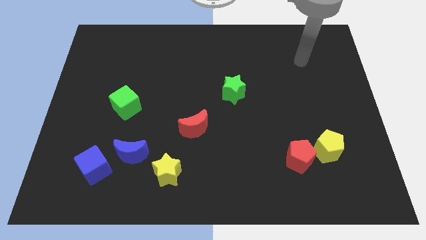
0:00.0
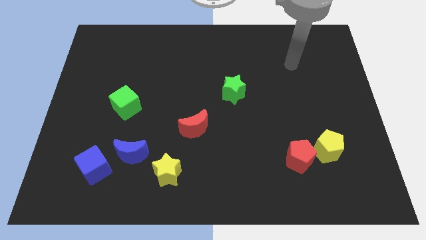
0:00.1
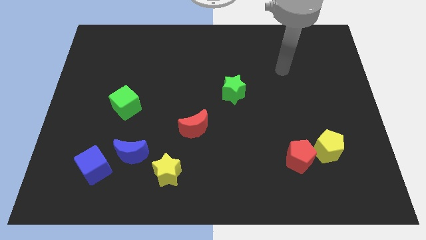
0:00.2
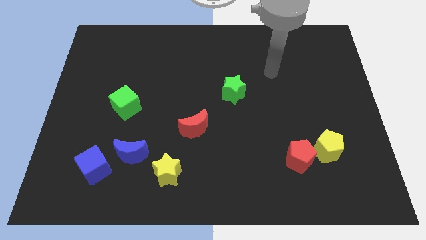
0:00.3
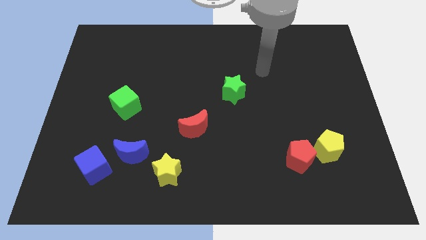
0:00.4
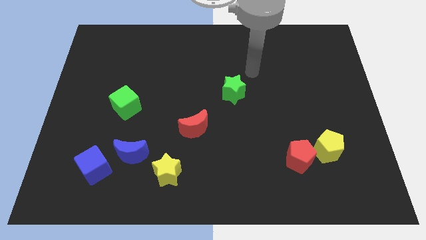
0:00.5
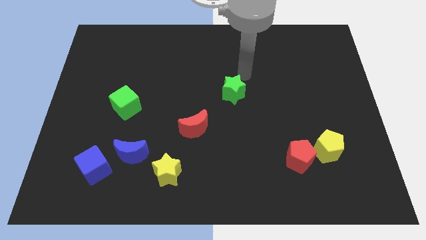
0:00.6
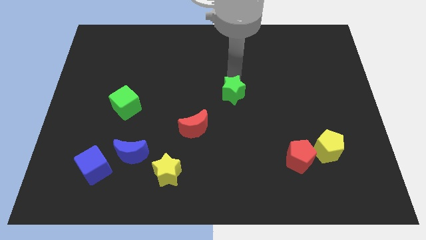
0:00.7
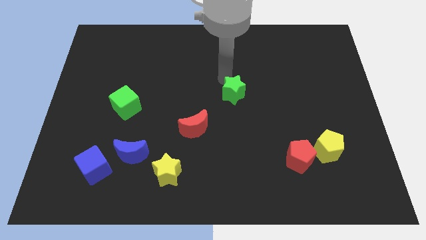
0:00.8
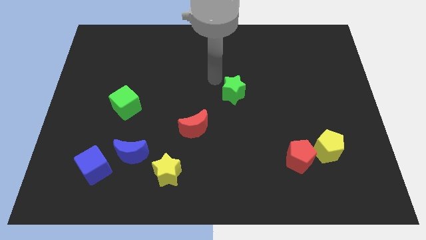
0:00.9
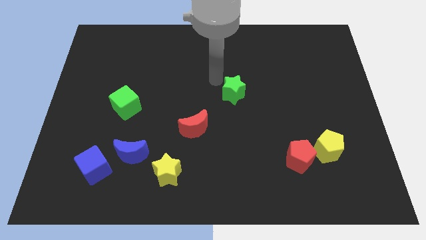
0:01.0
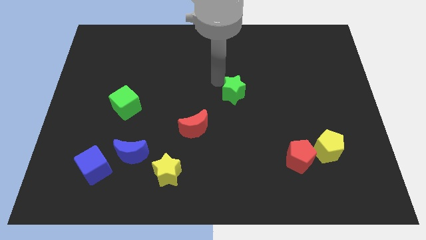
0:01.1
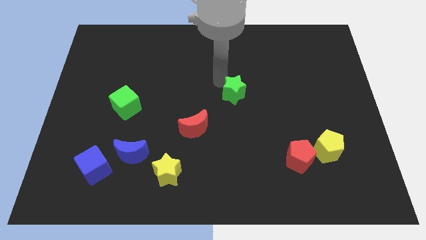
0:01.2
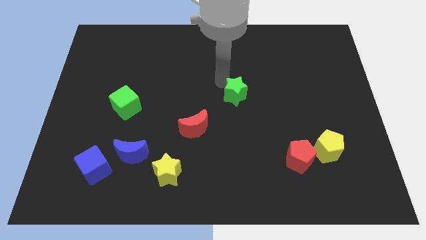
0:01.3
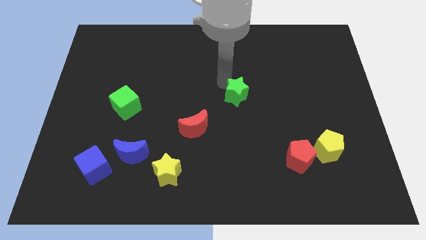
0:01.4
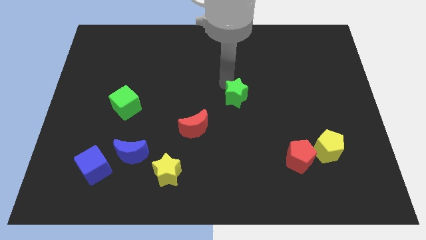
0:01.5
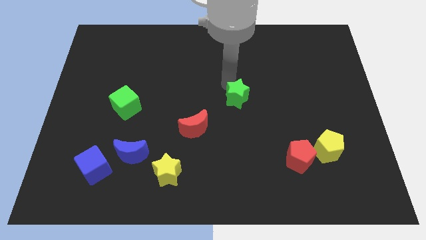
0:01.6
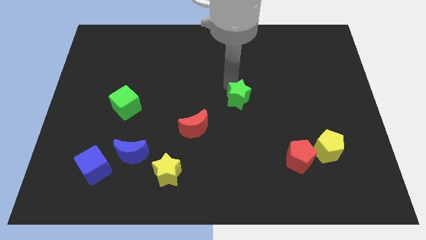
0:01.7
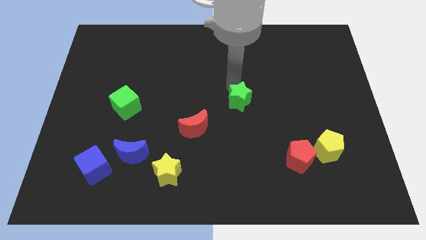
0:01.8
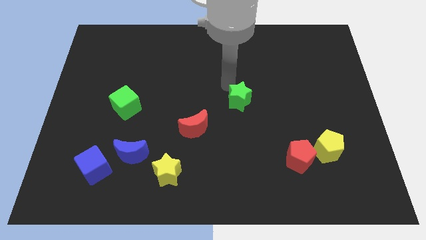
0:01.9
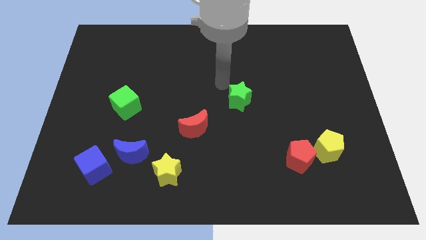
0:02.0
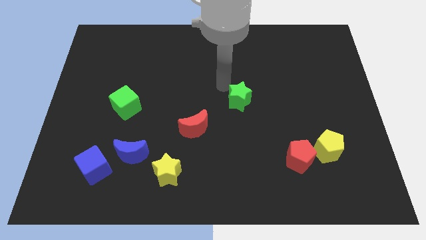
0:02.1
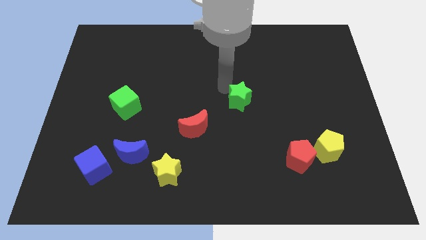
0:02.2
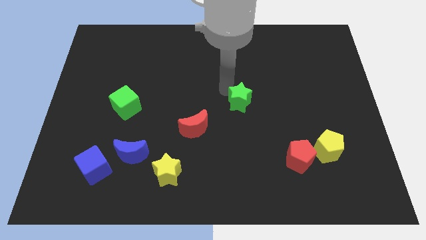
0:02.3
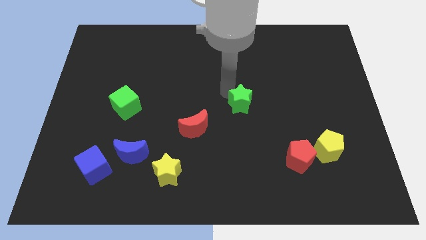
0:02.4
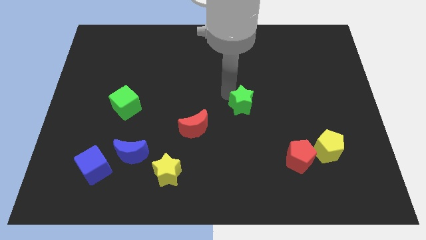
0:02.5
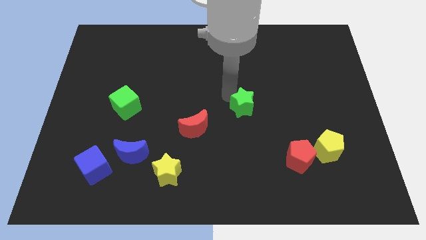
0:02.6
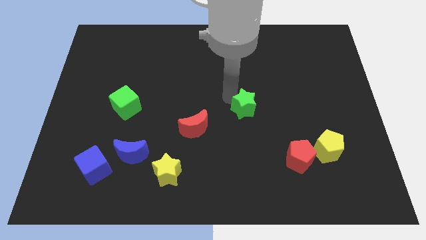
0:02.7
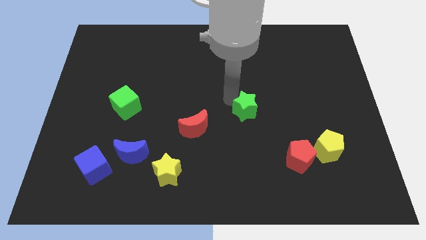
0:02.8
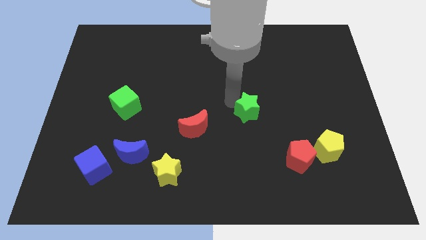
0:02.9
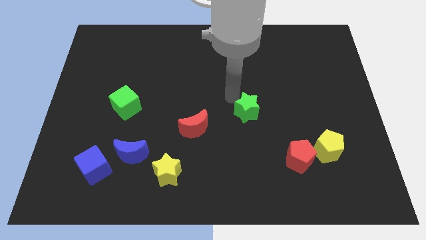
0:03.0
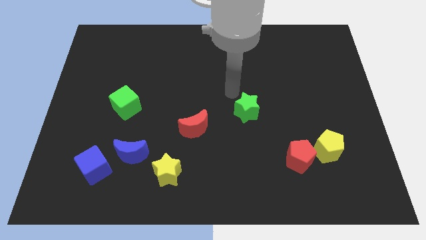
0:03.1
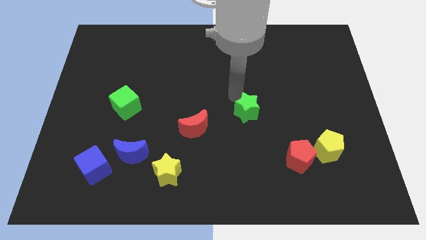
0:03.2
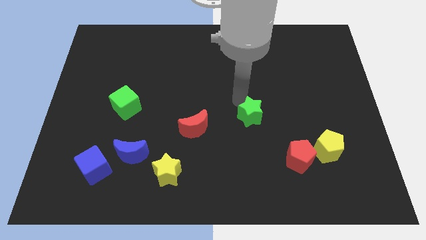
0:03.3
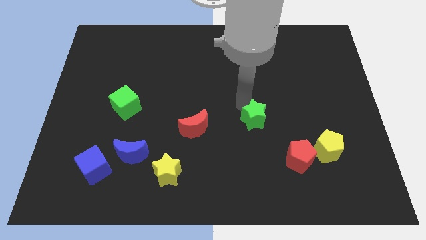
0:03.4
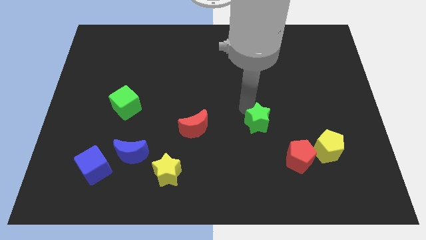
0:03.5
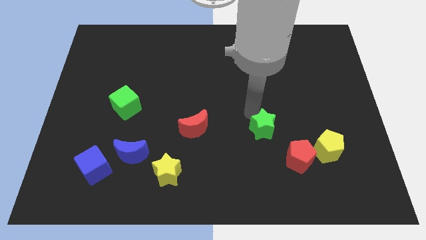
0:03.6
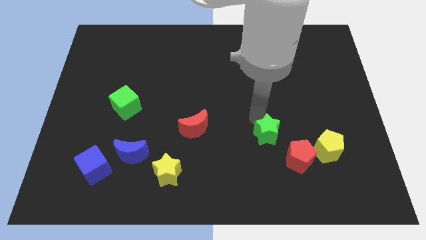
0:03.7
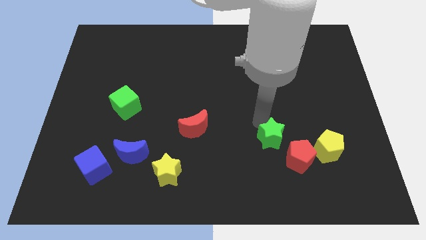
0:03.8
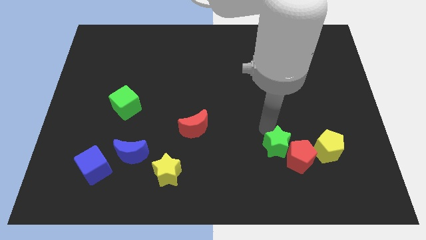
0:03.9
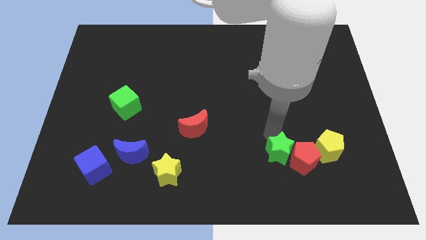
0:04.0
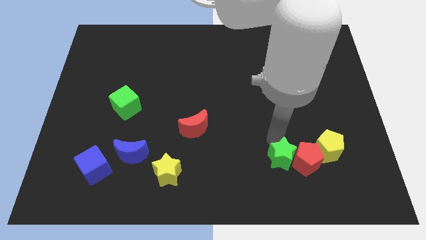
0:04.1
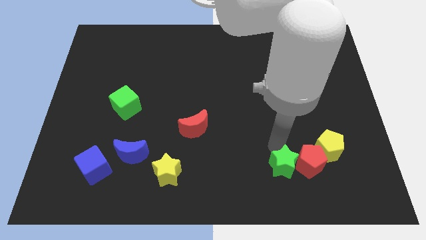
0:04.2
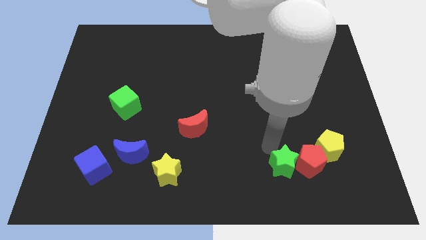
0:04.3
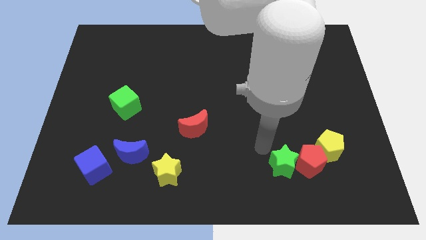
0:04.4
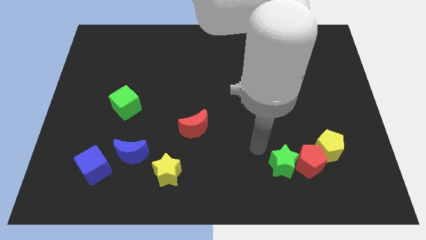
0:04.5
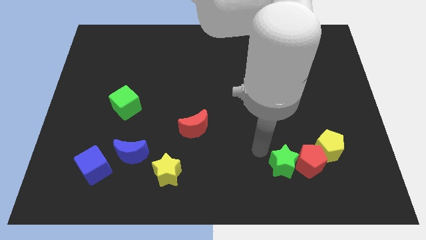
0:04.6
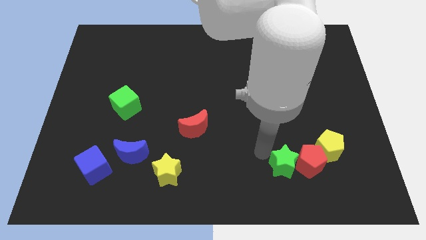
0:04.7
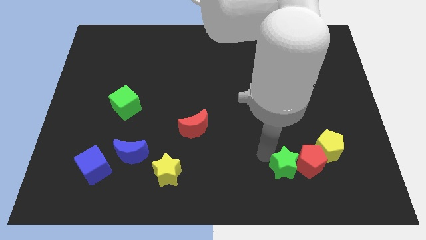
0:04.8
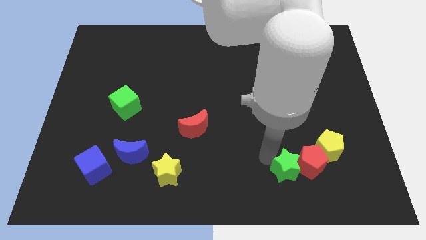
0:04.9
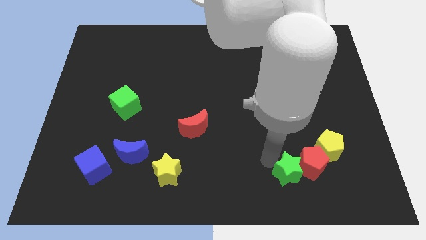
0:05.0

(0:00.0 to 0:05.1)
move the green star down and to the right

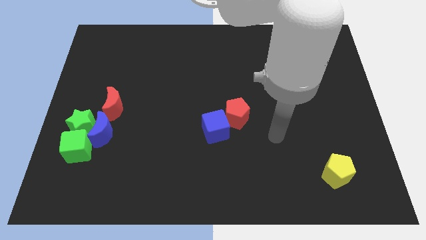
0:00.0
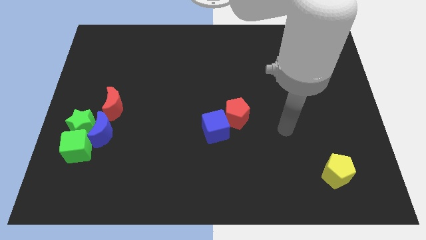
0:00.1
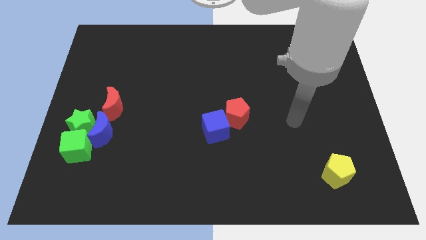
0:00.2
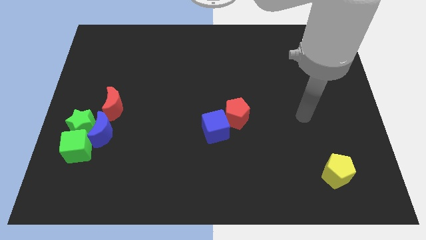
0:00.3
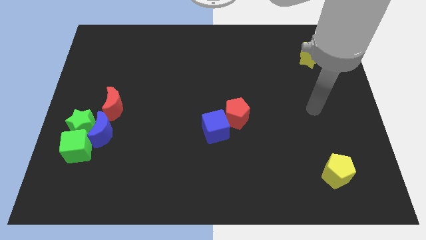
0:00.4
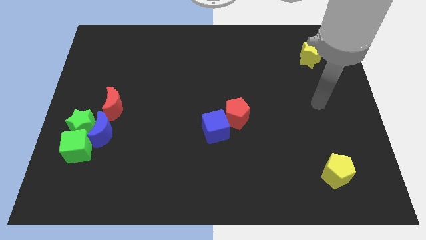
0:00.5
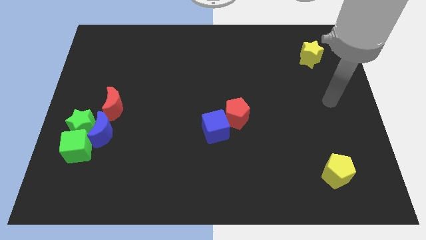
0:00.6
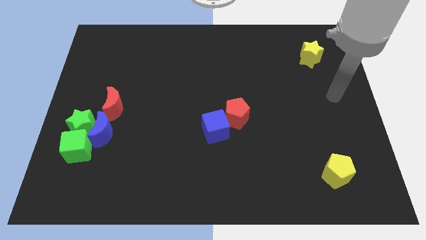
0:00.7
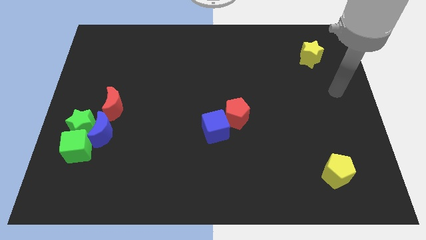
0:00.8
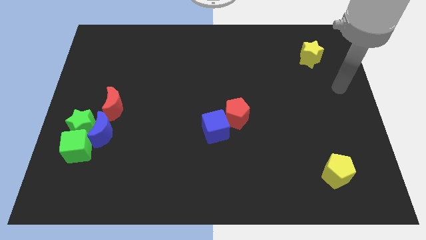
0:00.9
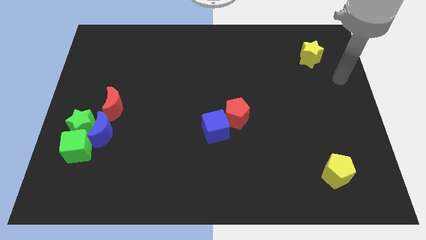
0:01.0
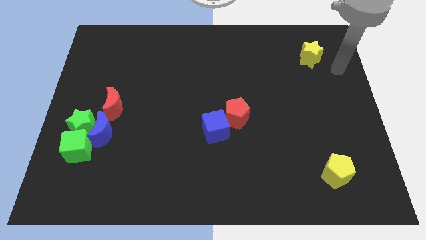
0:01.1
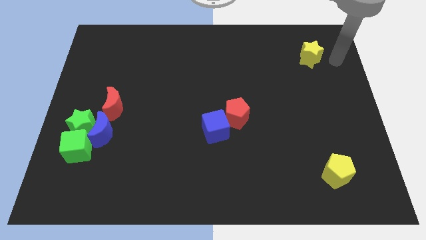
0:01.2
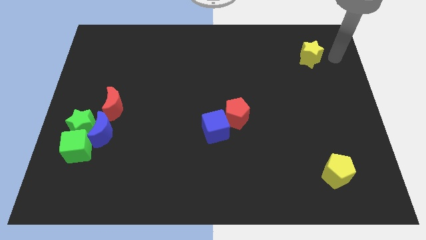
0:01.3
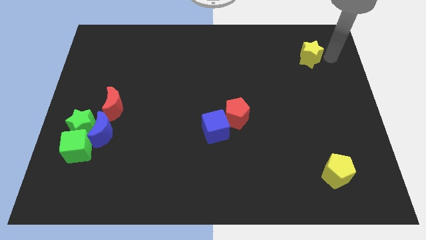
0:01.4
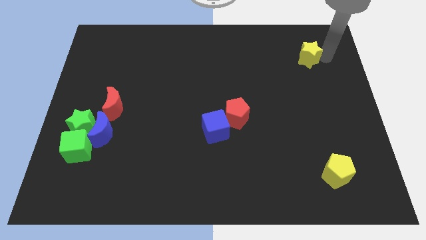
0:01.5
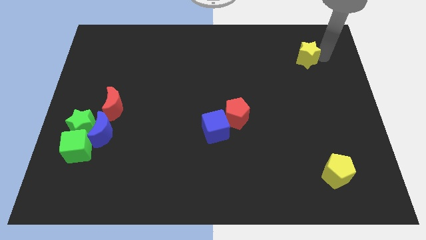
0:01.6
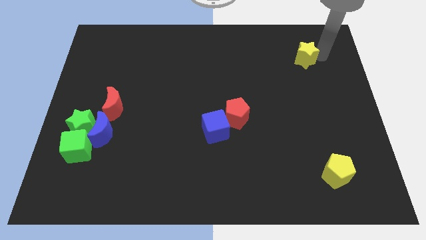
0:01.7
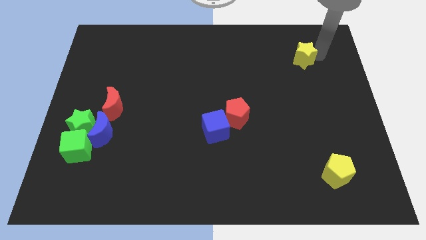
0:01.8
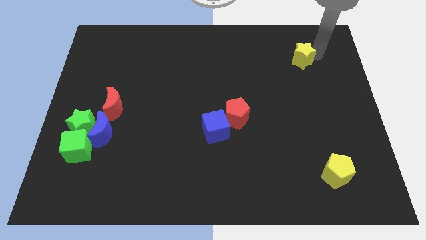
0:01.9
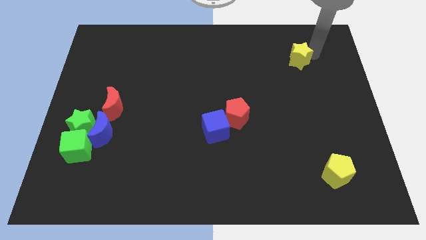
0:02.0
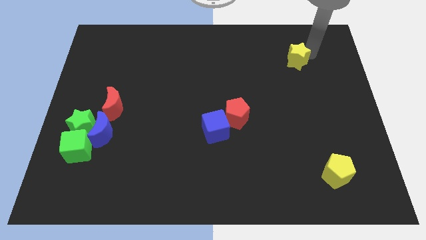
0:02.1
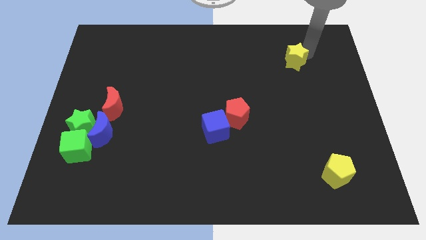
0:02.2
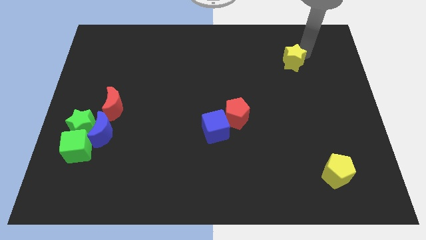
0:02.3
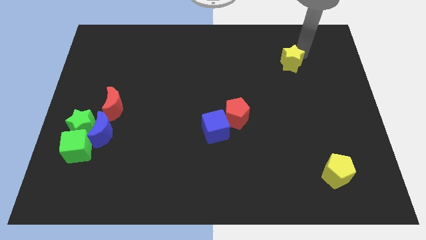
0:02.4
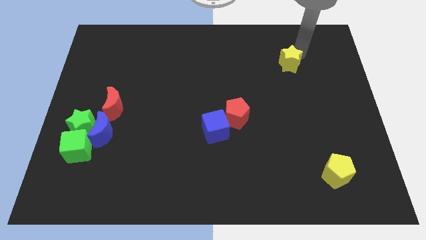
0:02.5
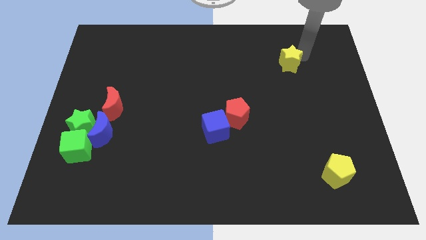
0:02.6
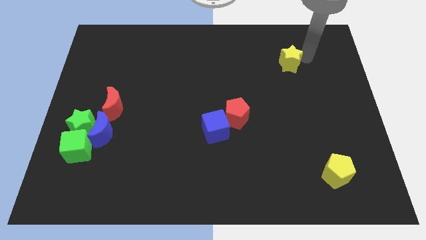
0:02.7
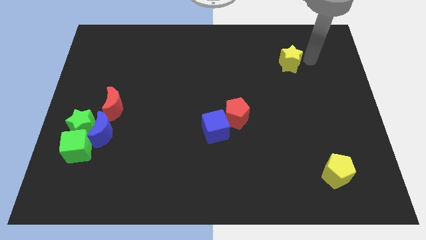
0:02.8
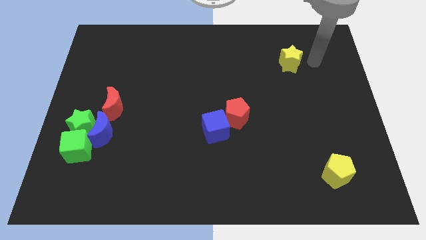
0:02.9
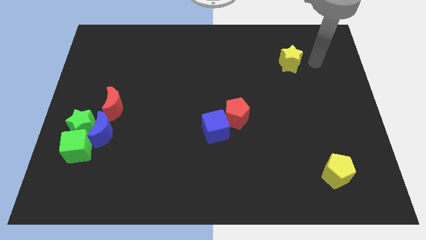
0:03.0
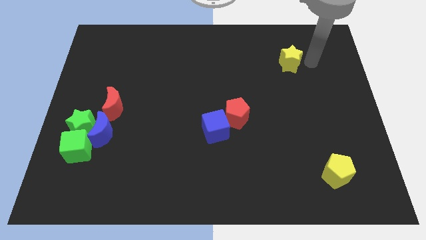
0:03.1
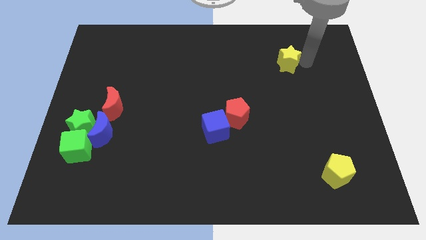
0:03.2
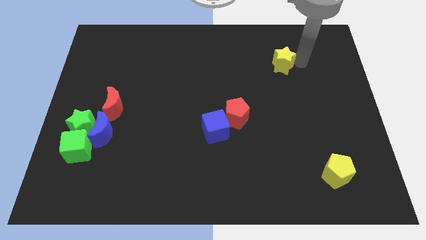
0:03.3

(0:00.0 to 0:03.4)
move the yellow star left a little
